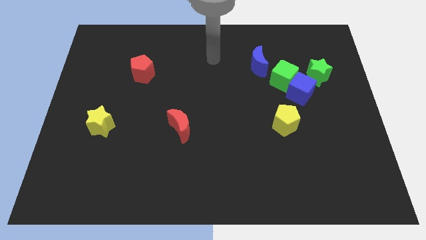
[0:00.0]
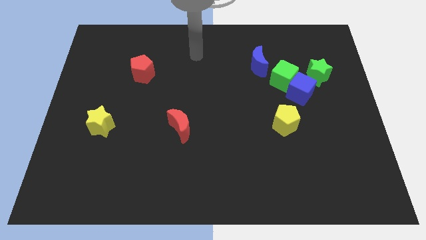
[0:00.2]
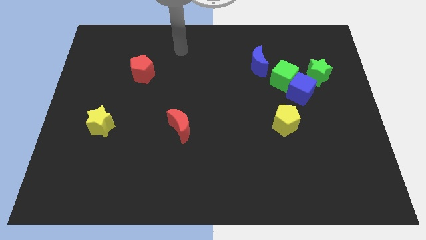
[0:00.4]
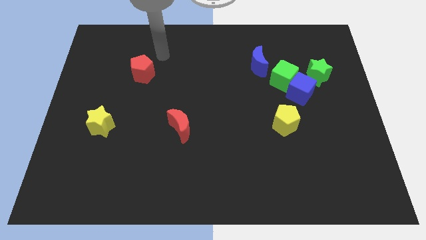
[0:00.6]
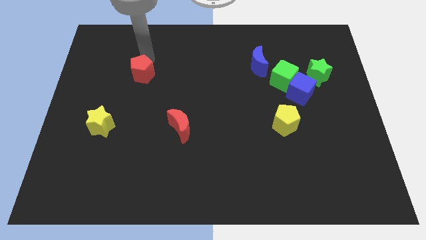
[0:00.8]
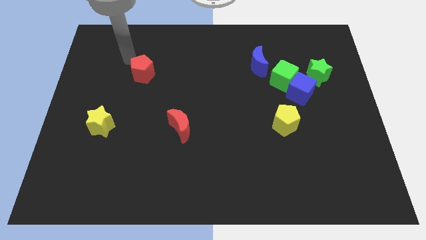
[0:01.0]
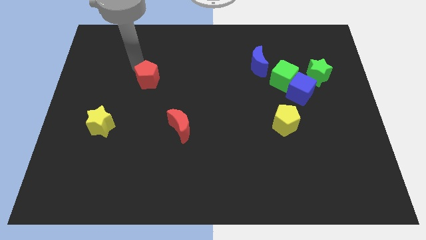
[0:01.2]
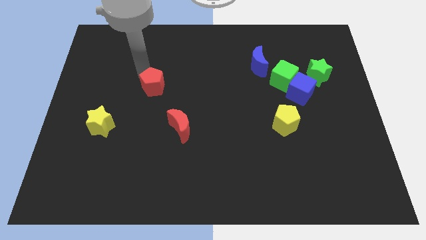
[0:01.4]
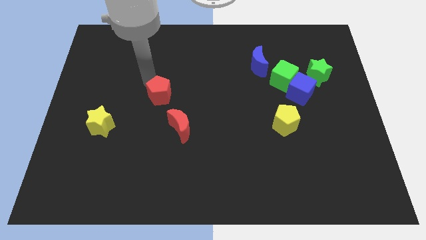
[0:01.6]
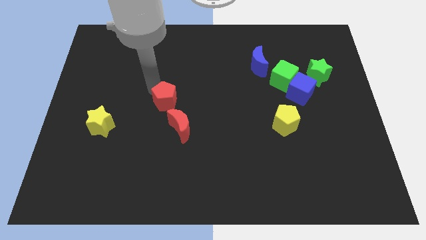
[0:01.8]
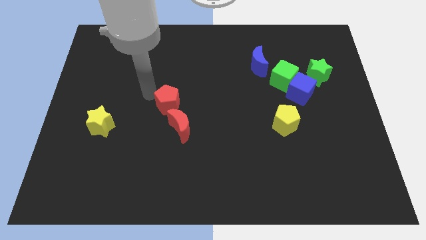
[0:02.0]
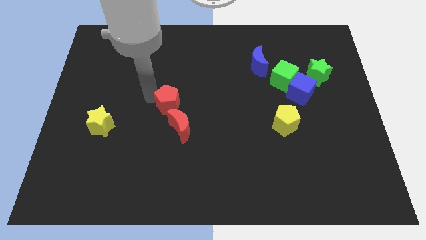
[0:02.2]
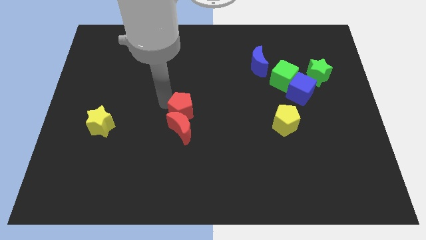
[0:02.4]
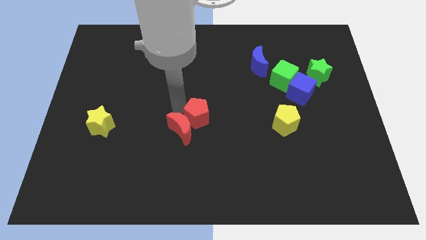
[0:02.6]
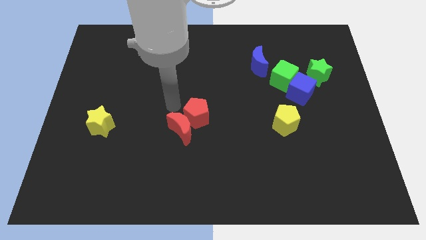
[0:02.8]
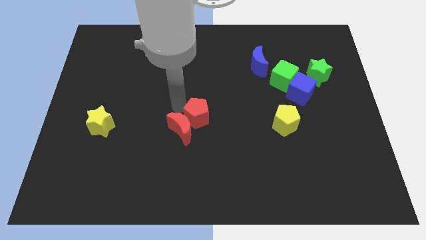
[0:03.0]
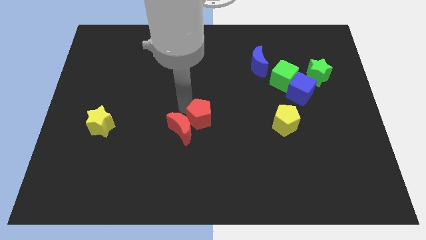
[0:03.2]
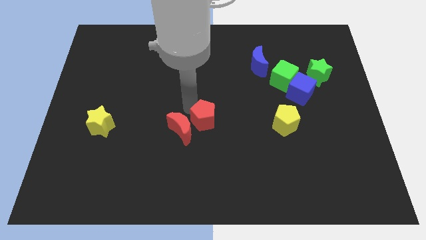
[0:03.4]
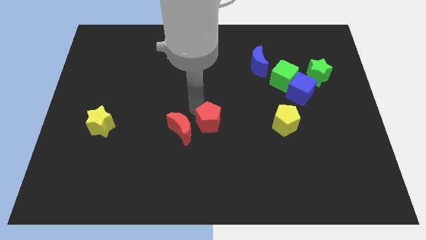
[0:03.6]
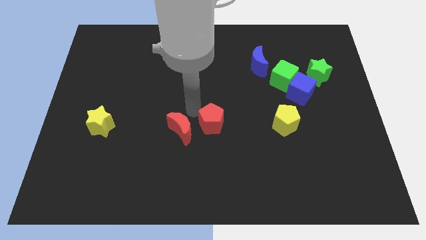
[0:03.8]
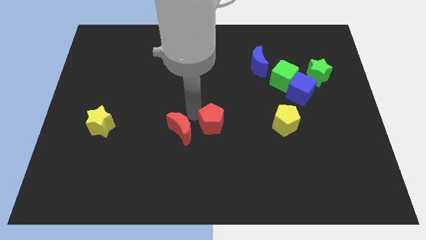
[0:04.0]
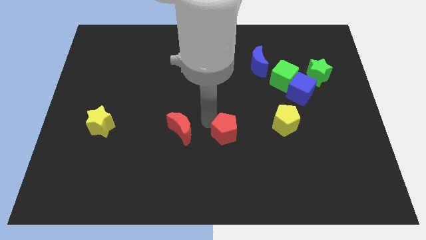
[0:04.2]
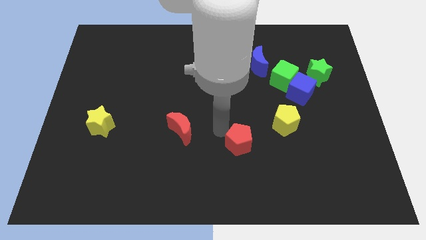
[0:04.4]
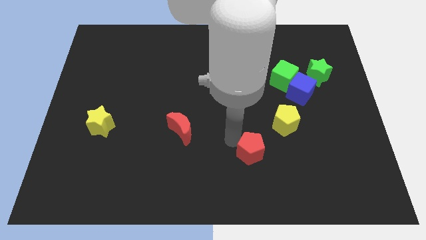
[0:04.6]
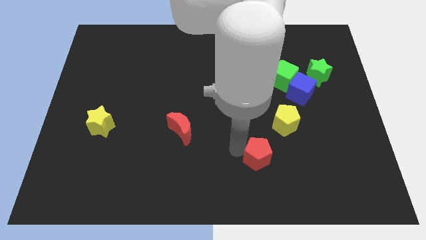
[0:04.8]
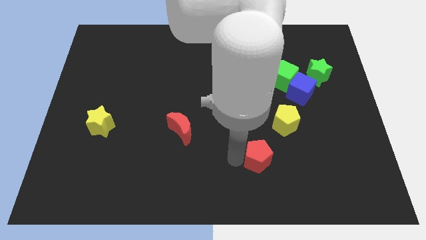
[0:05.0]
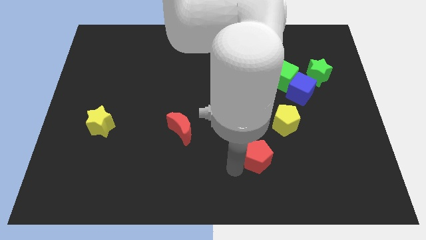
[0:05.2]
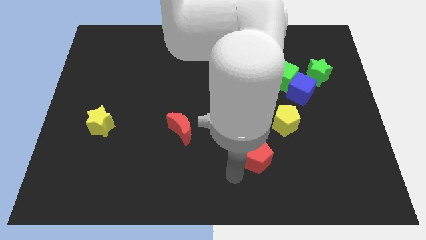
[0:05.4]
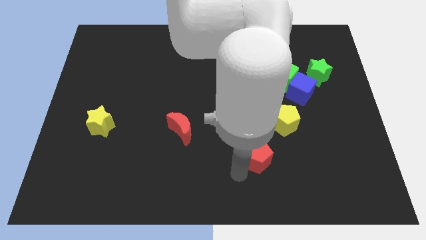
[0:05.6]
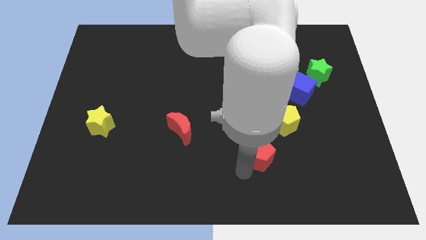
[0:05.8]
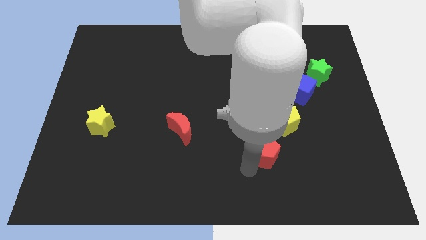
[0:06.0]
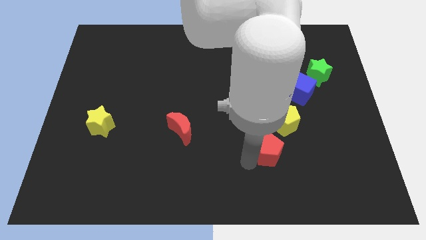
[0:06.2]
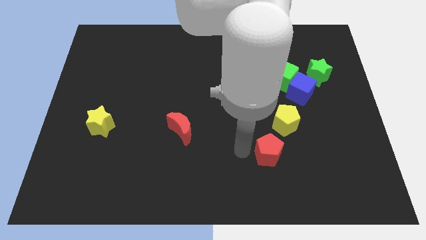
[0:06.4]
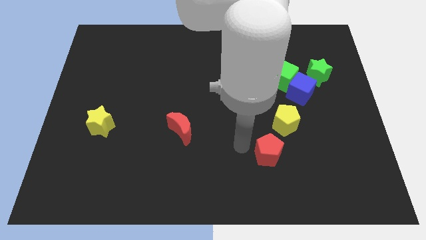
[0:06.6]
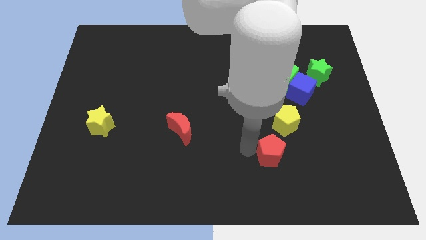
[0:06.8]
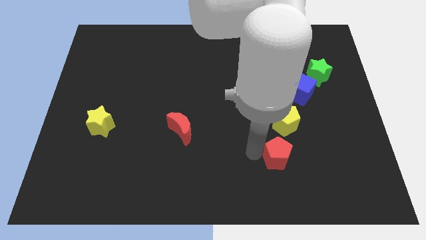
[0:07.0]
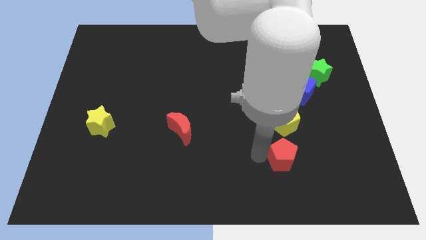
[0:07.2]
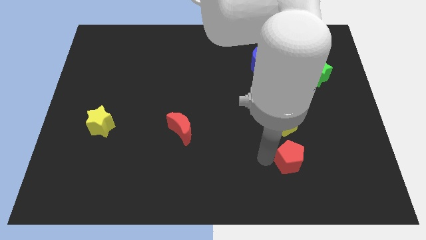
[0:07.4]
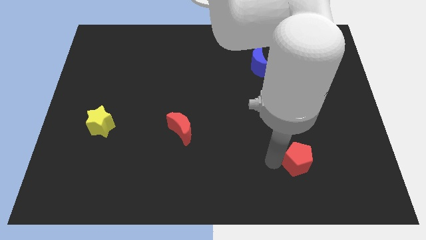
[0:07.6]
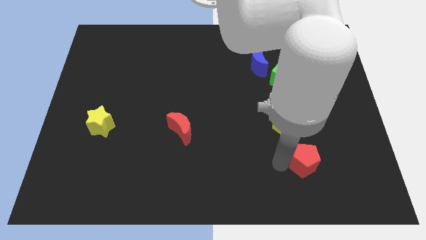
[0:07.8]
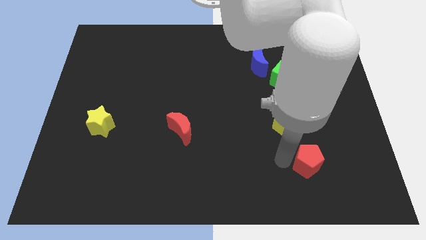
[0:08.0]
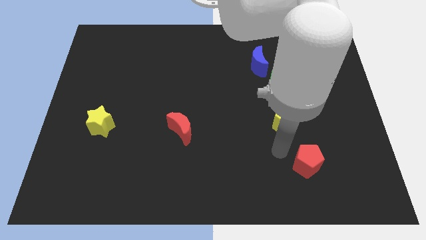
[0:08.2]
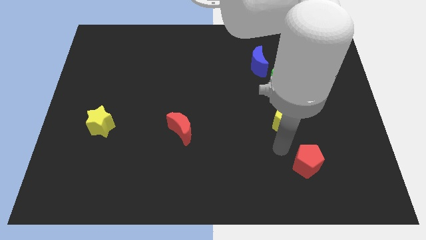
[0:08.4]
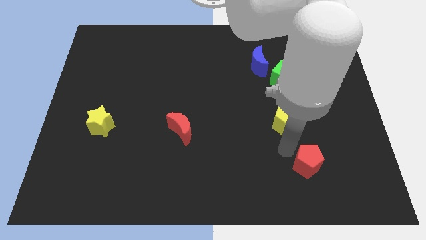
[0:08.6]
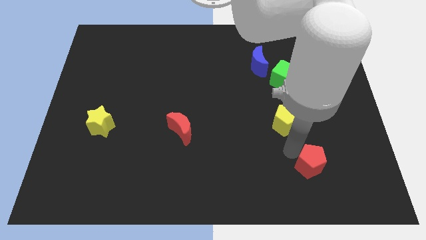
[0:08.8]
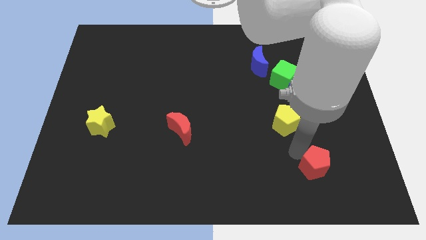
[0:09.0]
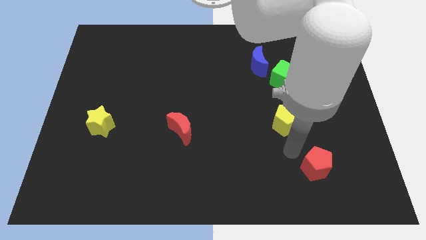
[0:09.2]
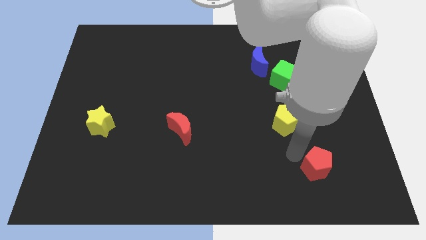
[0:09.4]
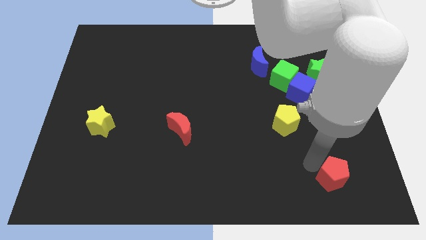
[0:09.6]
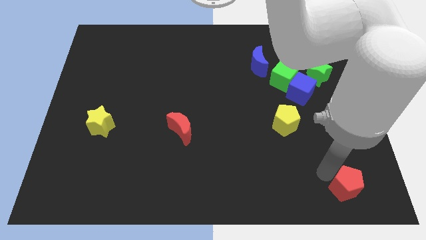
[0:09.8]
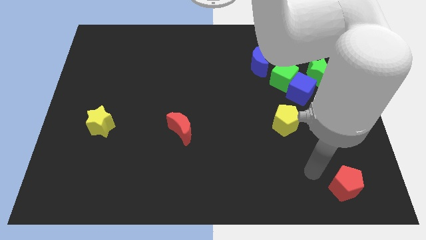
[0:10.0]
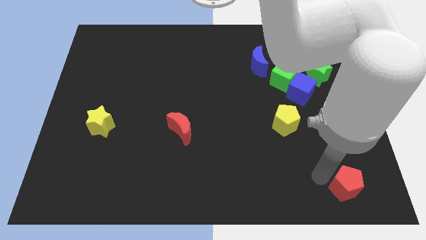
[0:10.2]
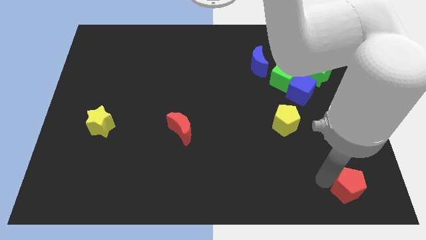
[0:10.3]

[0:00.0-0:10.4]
slide the red pentagon to the lower right corner

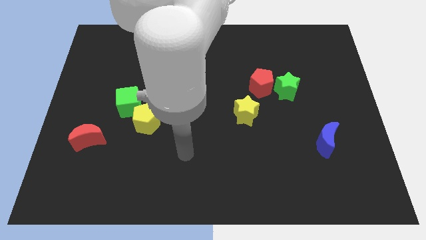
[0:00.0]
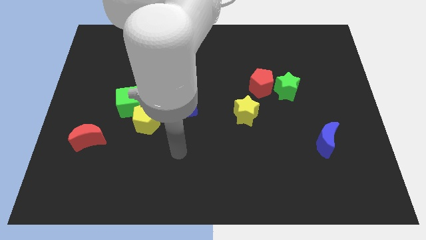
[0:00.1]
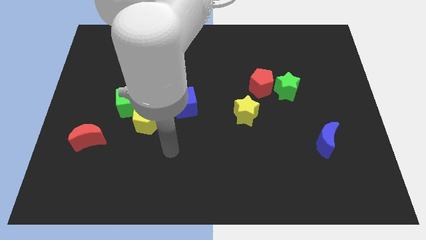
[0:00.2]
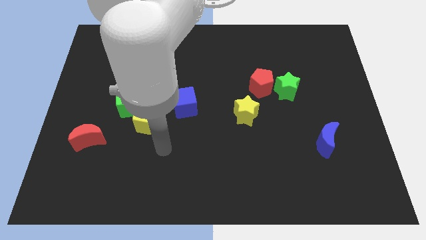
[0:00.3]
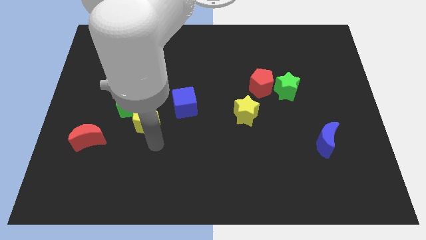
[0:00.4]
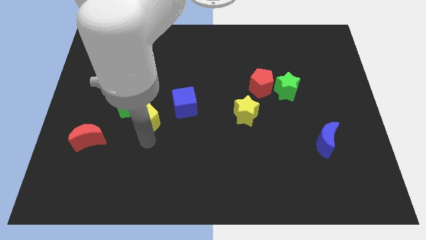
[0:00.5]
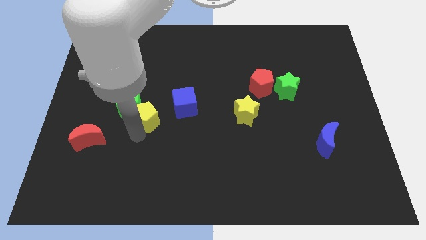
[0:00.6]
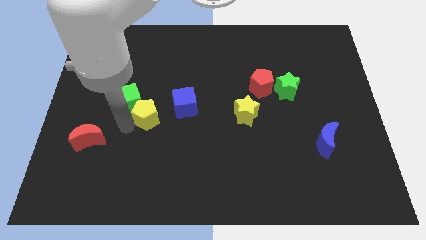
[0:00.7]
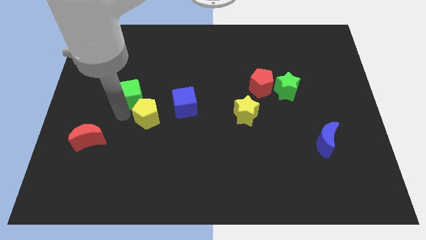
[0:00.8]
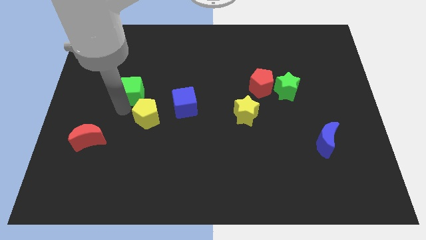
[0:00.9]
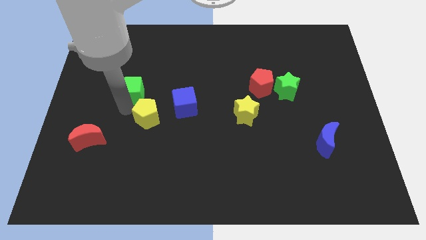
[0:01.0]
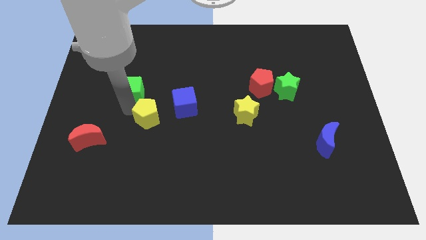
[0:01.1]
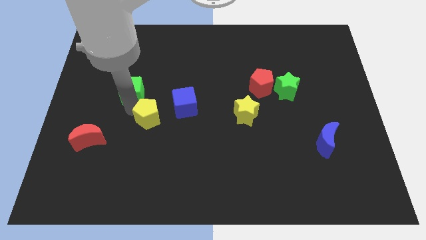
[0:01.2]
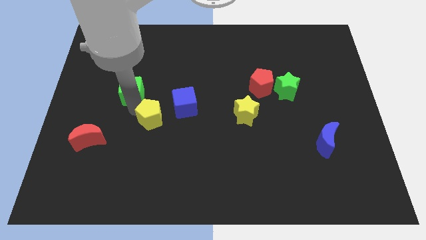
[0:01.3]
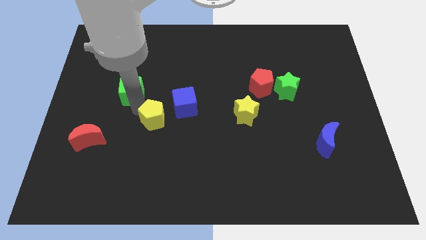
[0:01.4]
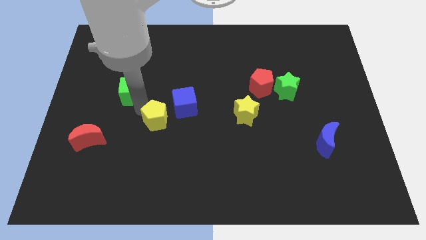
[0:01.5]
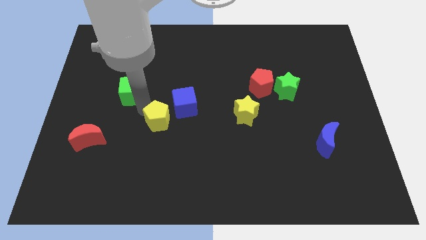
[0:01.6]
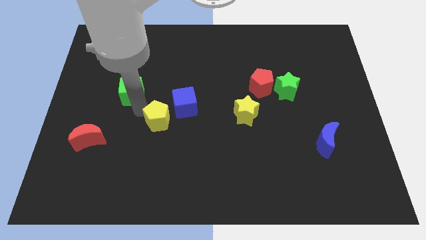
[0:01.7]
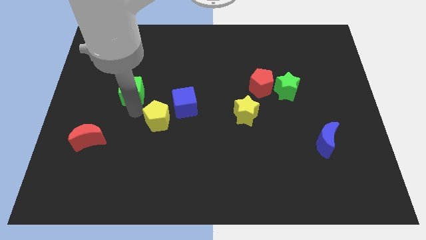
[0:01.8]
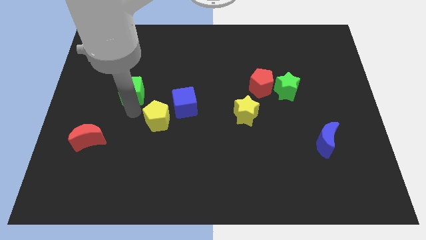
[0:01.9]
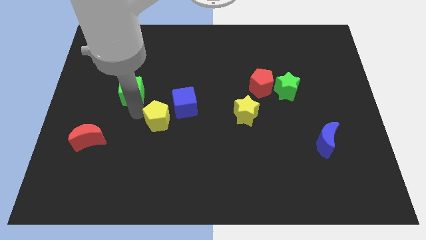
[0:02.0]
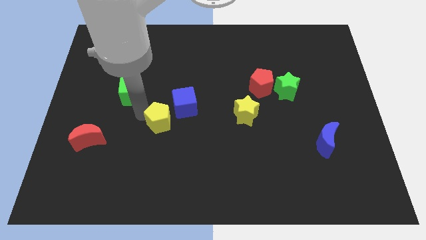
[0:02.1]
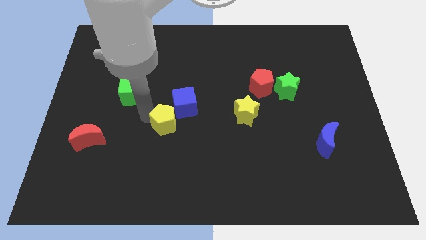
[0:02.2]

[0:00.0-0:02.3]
push the yellow pentagon to the center of the board

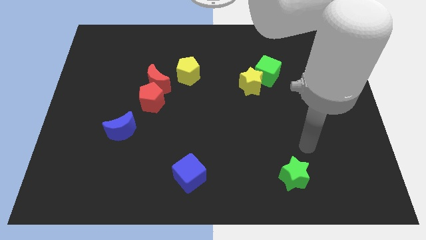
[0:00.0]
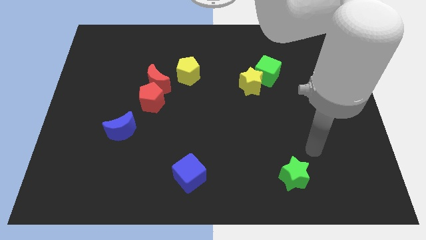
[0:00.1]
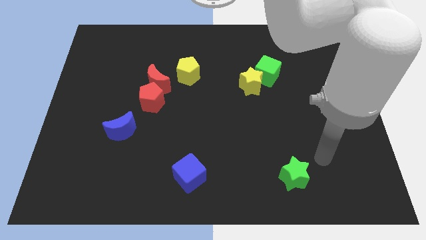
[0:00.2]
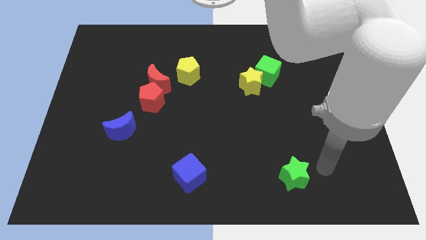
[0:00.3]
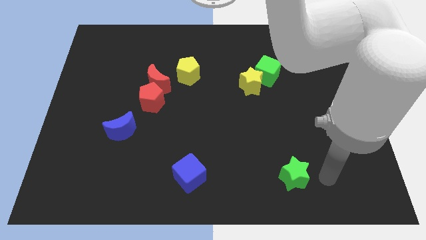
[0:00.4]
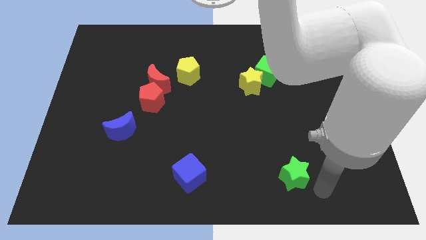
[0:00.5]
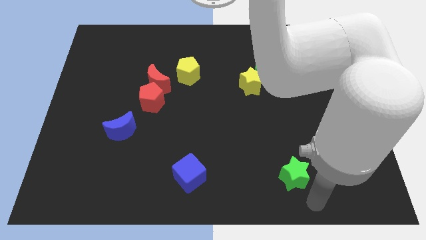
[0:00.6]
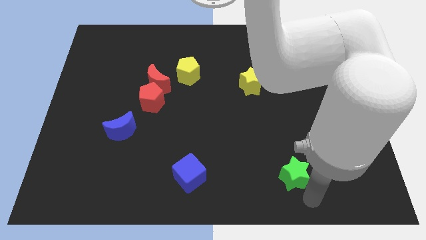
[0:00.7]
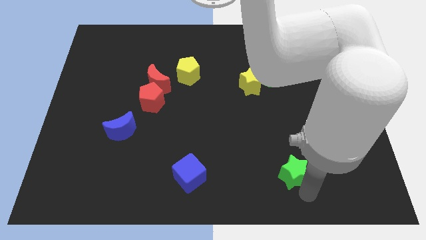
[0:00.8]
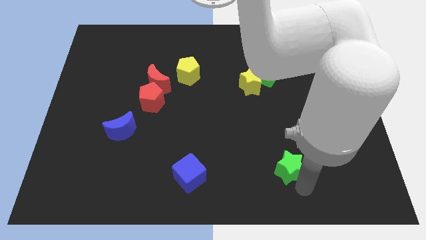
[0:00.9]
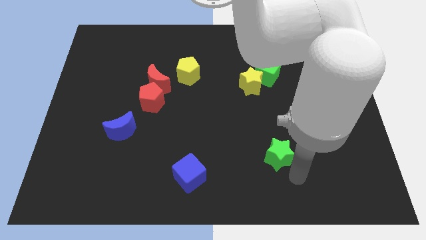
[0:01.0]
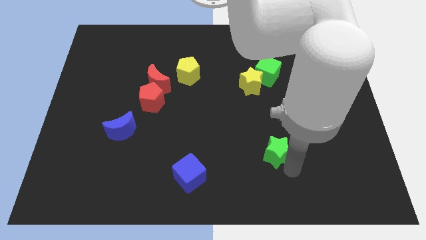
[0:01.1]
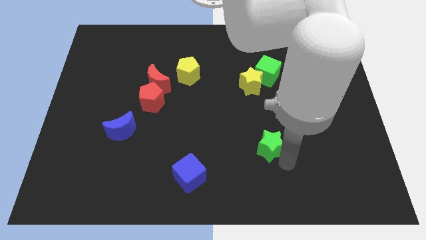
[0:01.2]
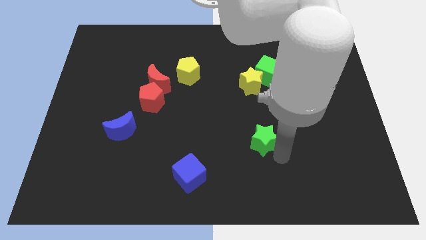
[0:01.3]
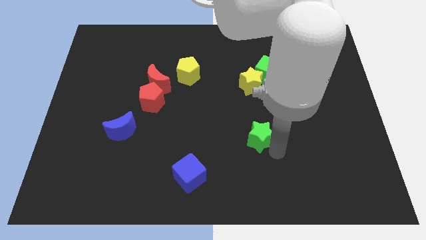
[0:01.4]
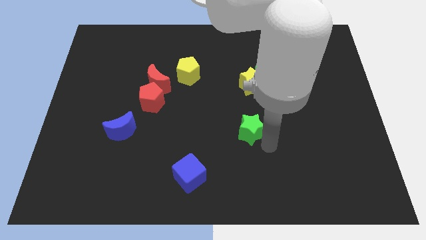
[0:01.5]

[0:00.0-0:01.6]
put the green star to the middle of the board
